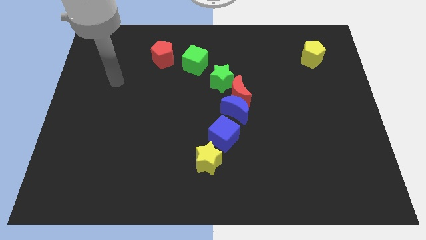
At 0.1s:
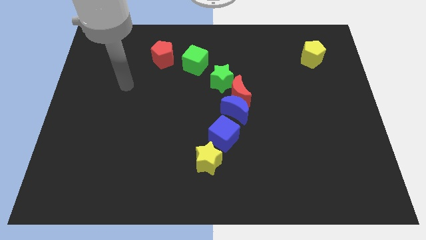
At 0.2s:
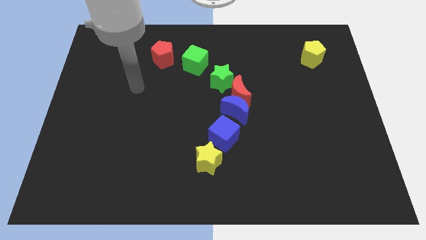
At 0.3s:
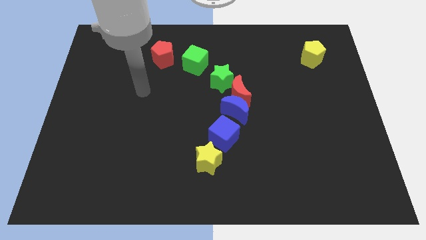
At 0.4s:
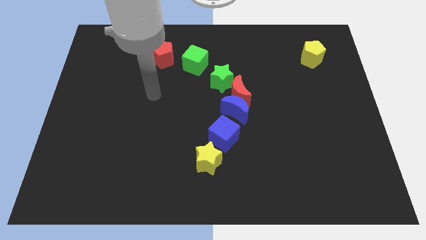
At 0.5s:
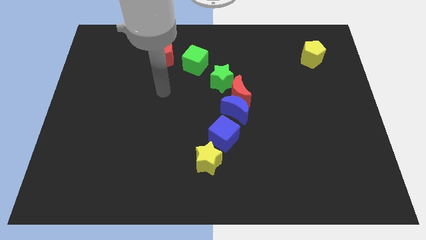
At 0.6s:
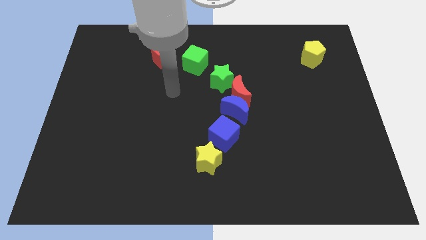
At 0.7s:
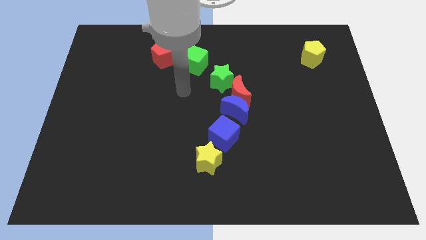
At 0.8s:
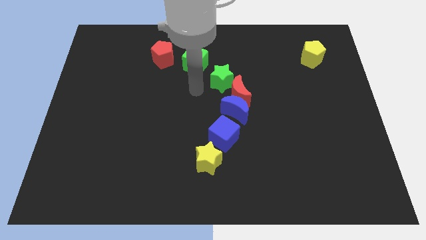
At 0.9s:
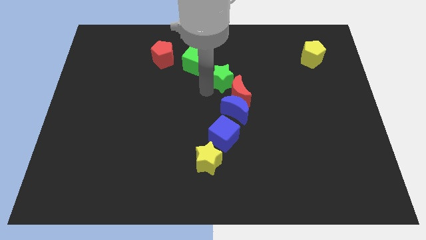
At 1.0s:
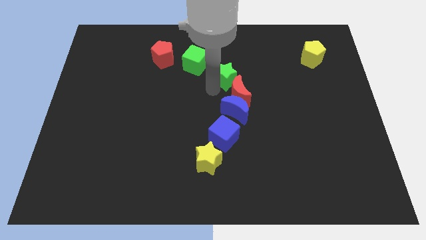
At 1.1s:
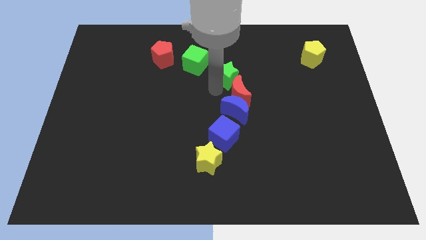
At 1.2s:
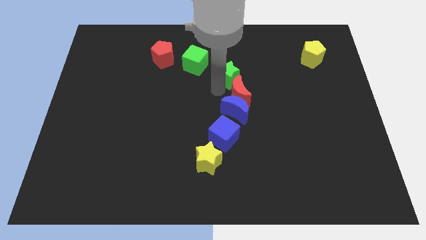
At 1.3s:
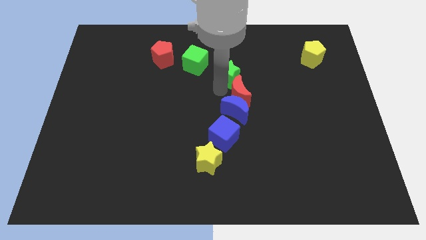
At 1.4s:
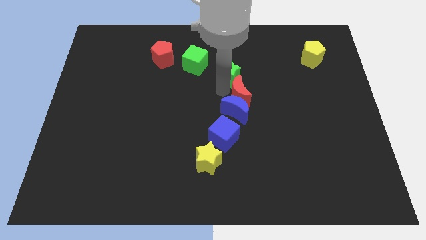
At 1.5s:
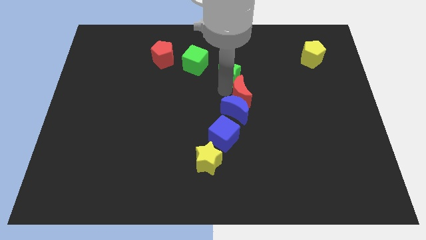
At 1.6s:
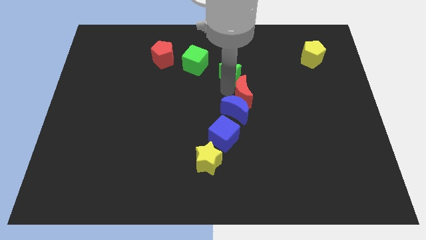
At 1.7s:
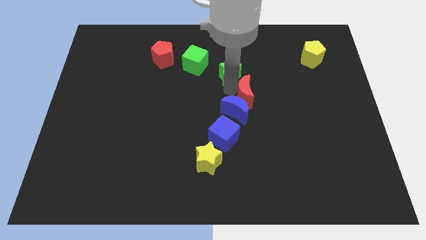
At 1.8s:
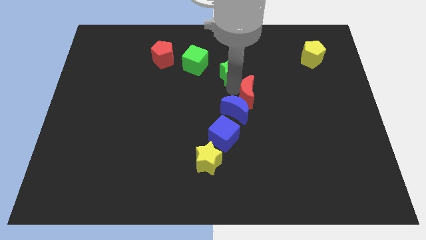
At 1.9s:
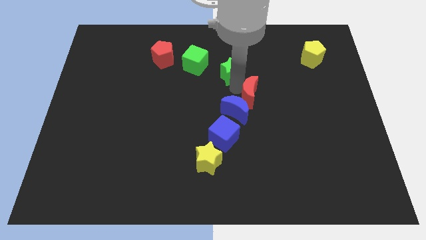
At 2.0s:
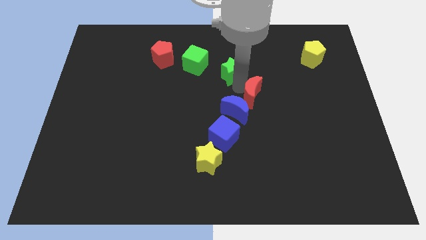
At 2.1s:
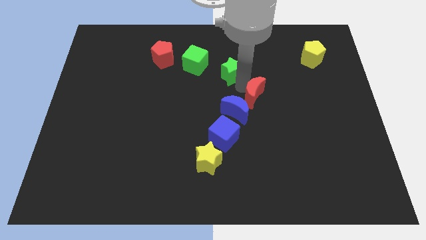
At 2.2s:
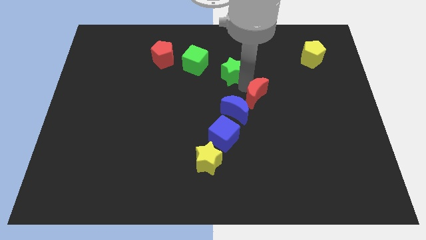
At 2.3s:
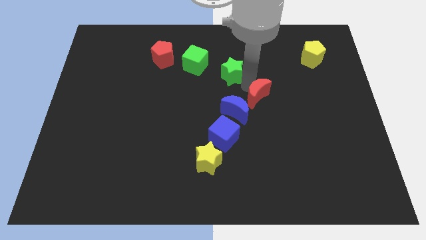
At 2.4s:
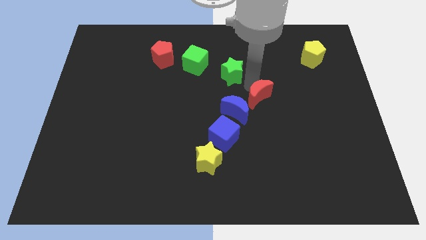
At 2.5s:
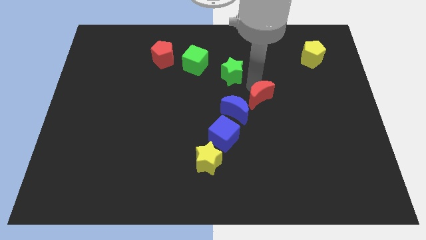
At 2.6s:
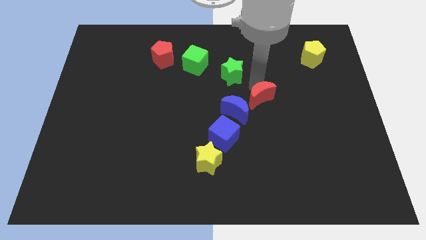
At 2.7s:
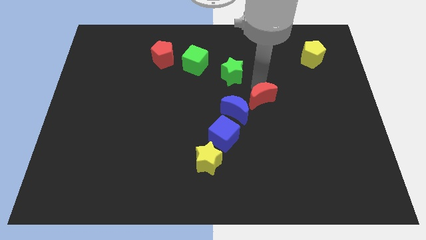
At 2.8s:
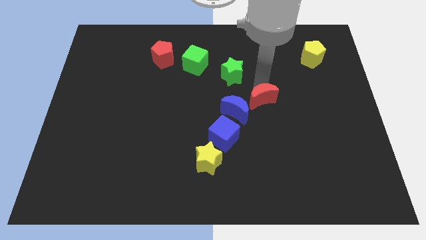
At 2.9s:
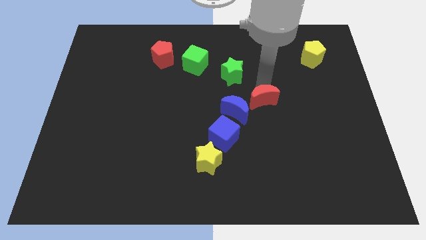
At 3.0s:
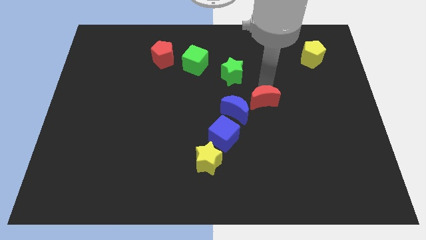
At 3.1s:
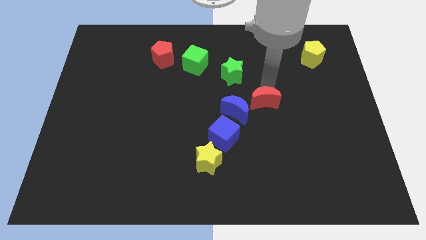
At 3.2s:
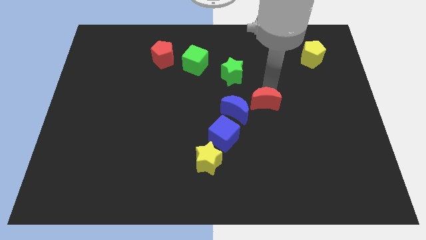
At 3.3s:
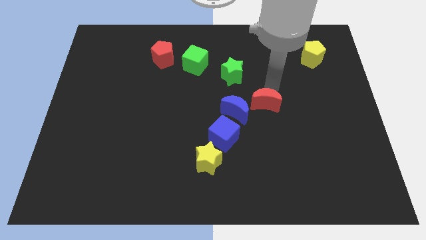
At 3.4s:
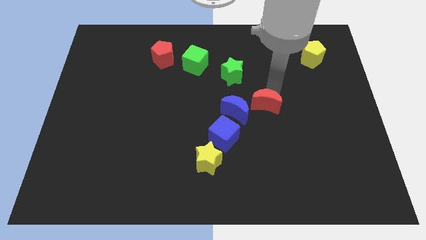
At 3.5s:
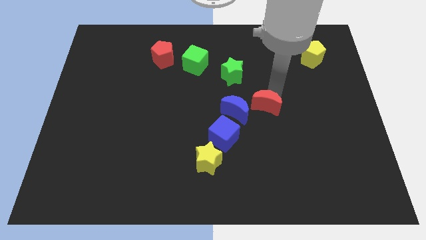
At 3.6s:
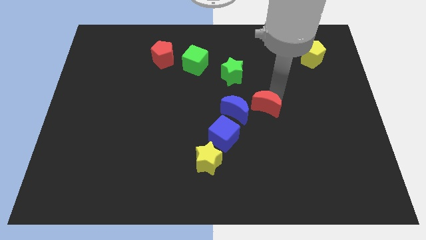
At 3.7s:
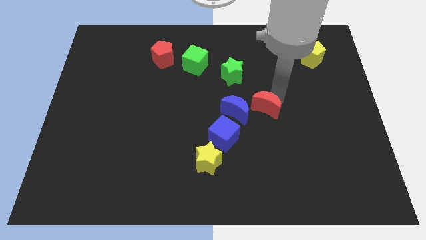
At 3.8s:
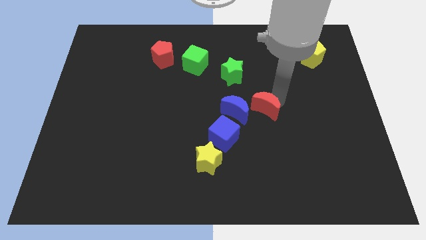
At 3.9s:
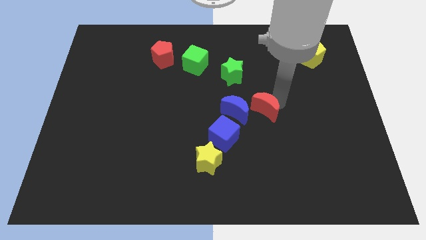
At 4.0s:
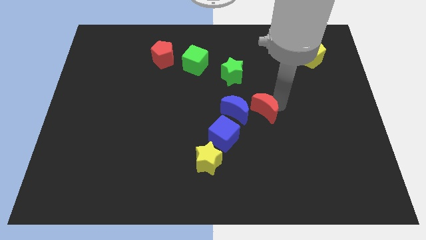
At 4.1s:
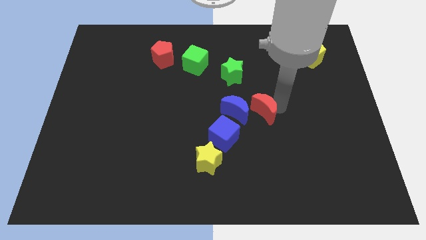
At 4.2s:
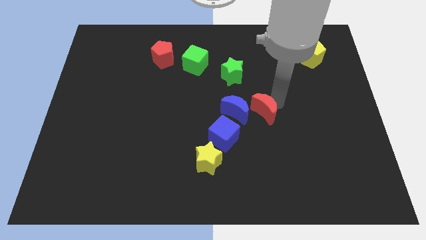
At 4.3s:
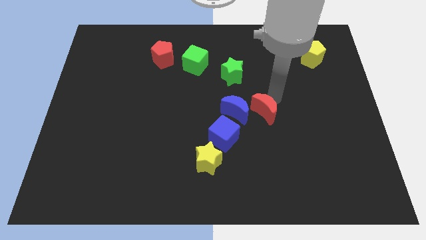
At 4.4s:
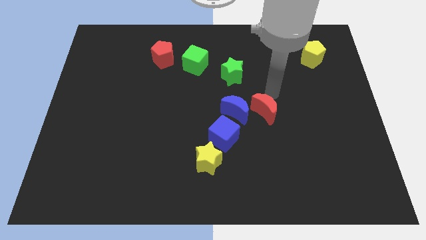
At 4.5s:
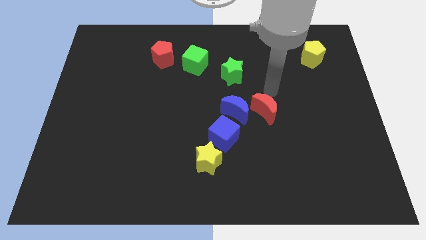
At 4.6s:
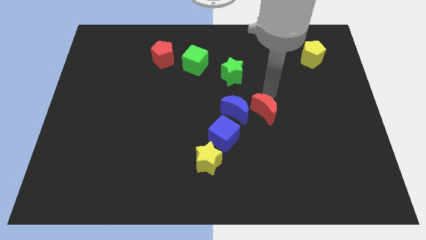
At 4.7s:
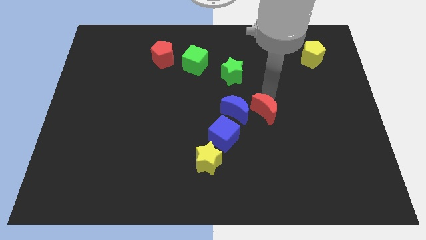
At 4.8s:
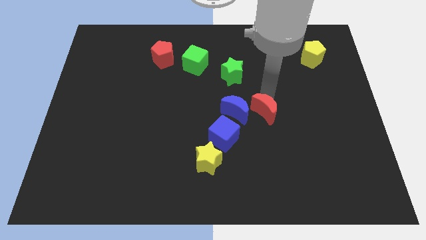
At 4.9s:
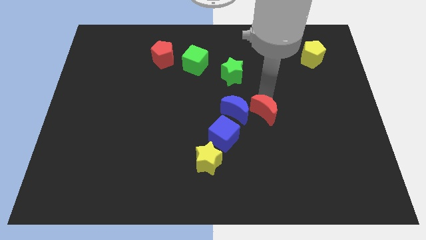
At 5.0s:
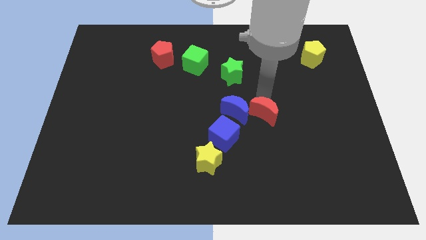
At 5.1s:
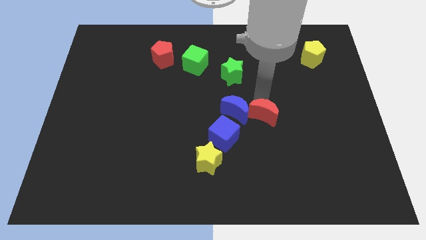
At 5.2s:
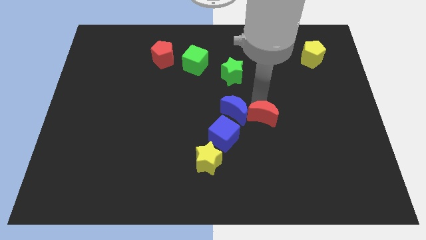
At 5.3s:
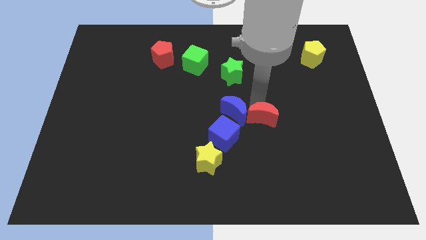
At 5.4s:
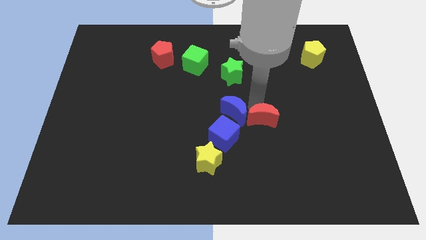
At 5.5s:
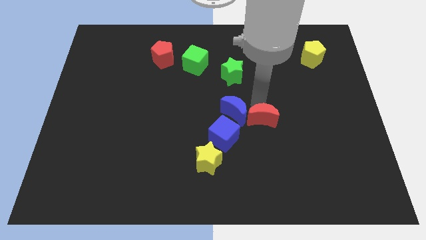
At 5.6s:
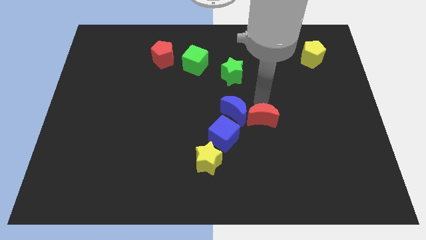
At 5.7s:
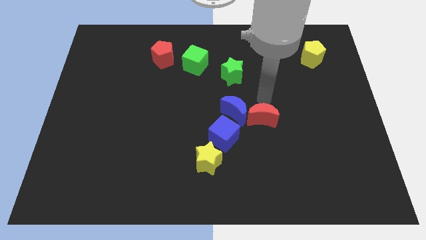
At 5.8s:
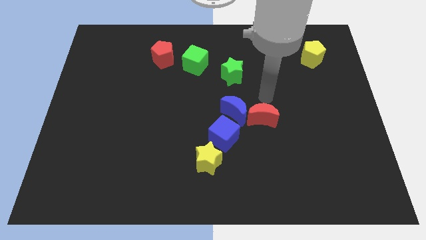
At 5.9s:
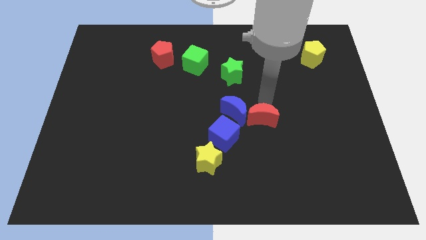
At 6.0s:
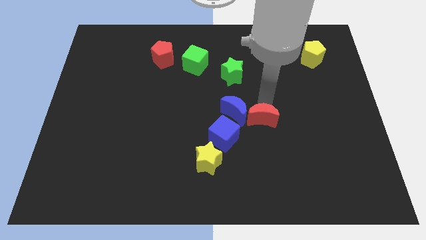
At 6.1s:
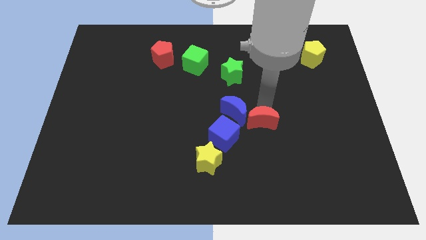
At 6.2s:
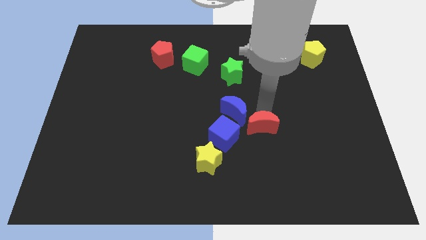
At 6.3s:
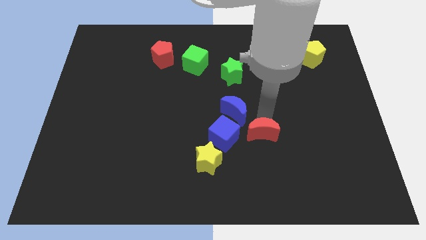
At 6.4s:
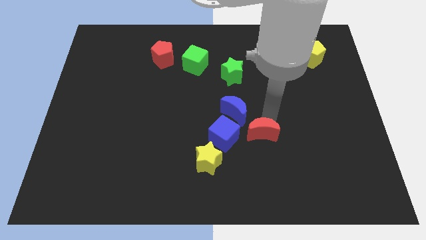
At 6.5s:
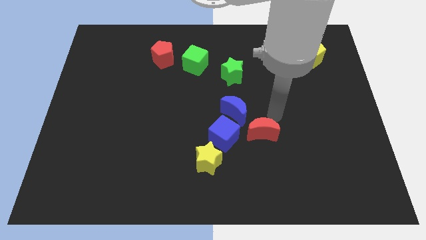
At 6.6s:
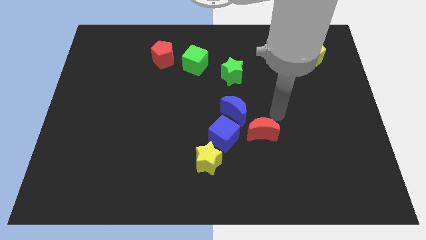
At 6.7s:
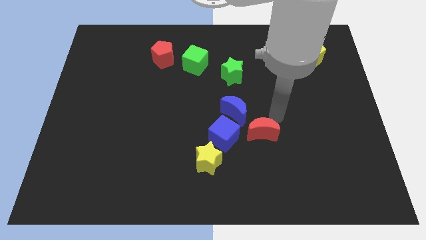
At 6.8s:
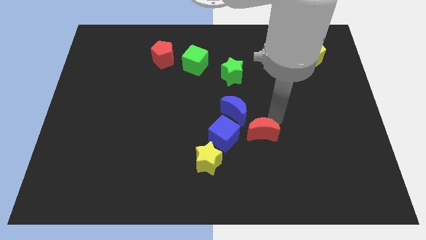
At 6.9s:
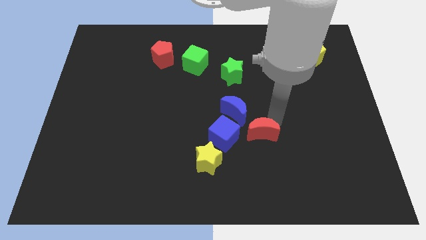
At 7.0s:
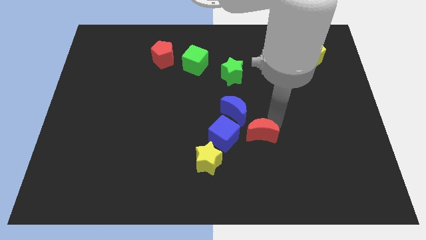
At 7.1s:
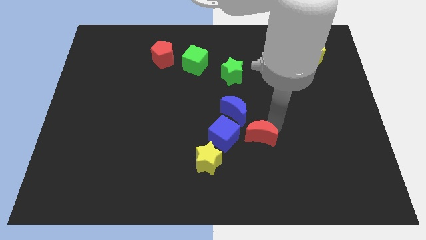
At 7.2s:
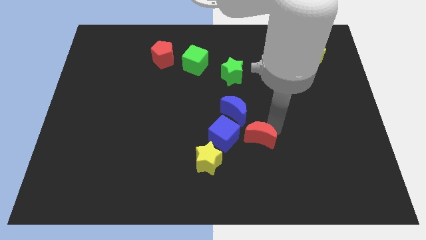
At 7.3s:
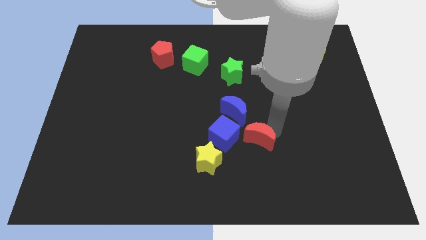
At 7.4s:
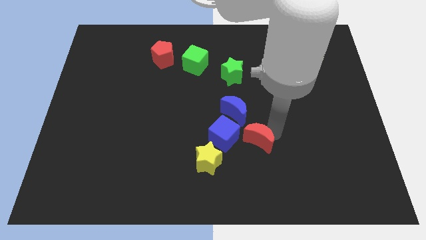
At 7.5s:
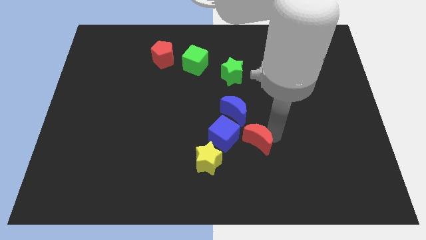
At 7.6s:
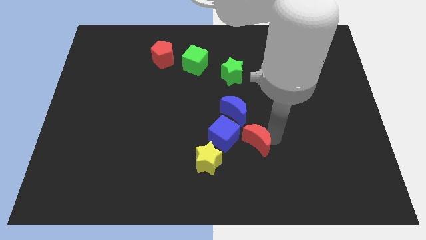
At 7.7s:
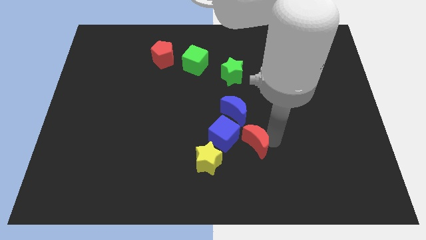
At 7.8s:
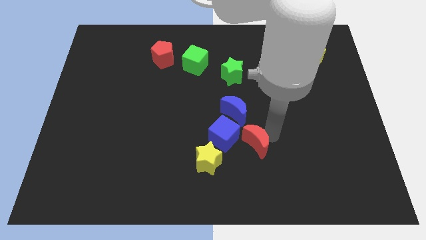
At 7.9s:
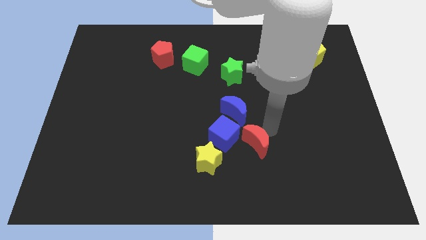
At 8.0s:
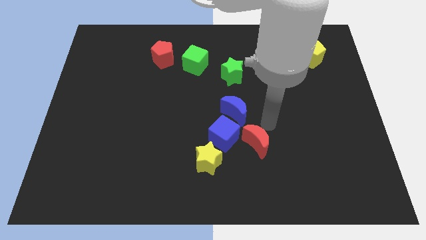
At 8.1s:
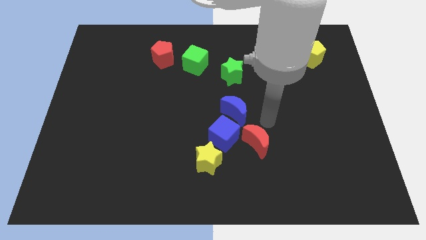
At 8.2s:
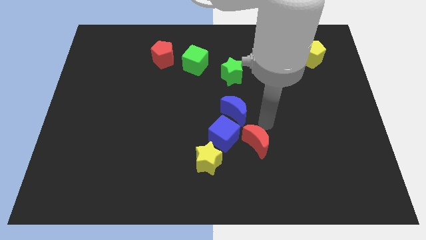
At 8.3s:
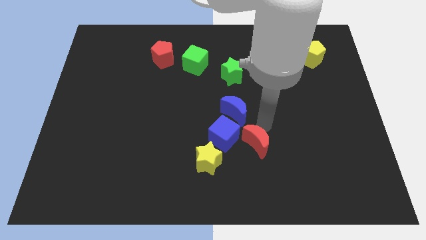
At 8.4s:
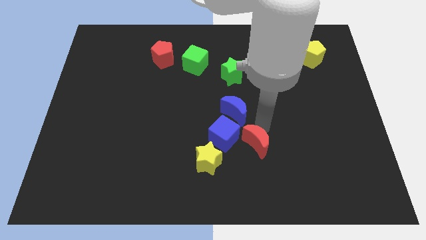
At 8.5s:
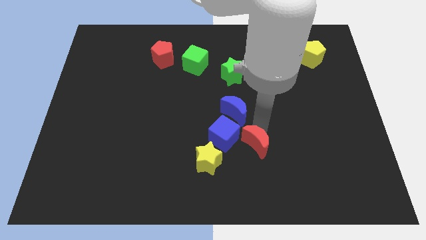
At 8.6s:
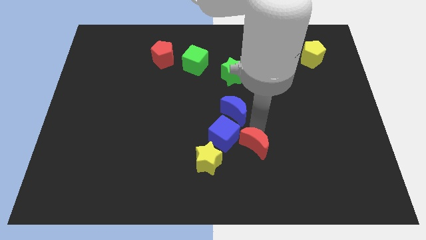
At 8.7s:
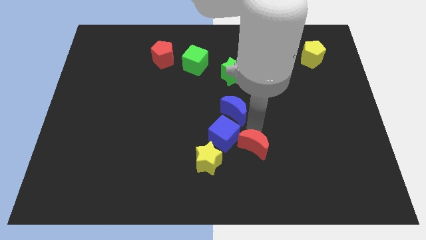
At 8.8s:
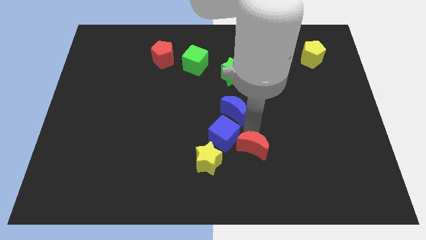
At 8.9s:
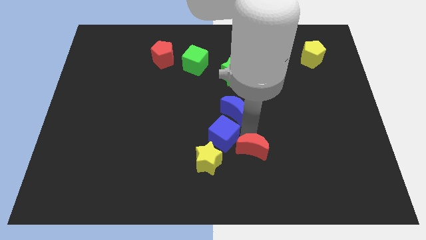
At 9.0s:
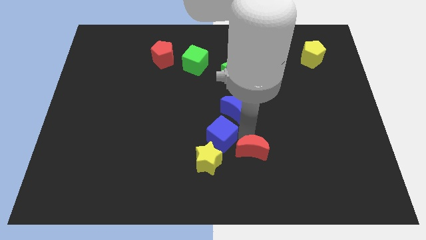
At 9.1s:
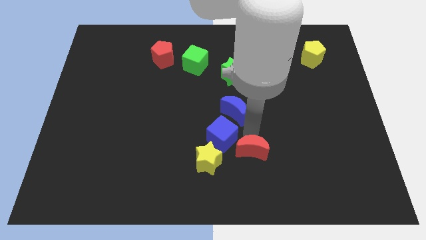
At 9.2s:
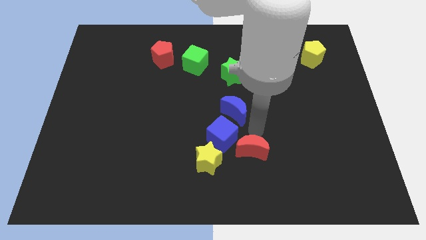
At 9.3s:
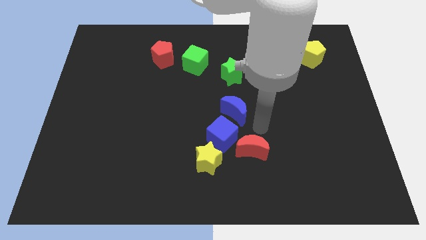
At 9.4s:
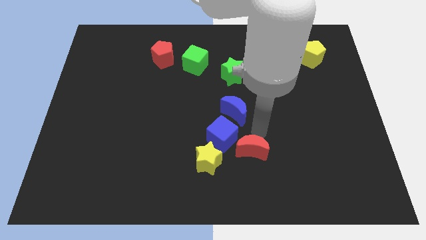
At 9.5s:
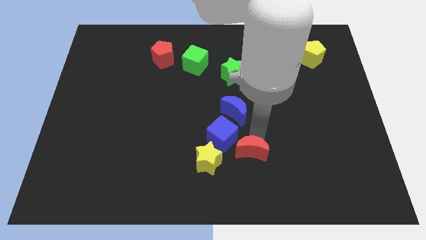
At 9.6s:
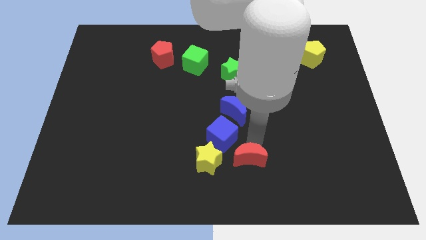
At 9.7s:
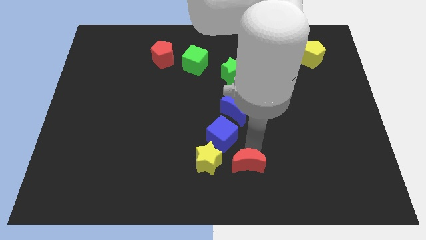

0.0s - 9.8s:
put the red moon to the bottom side
